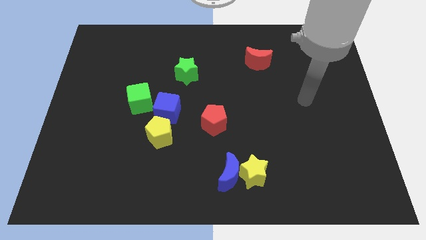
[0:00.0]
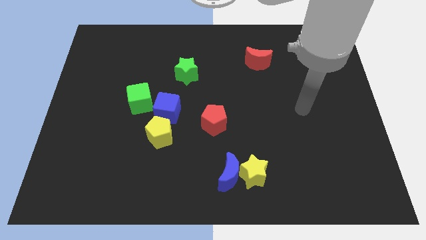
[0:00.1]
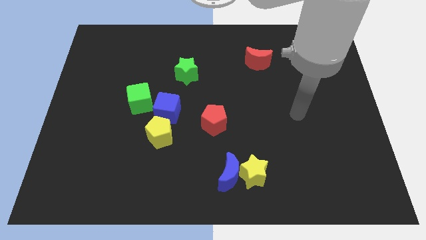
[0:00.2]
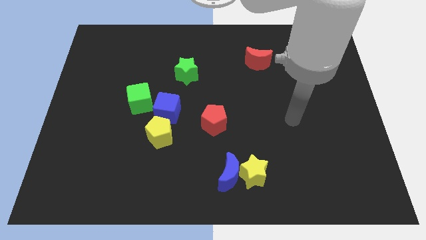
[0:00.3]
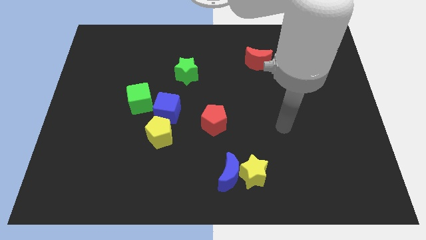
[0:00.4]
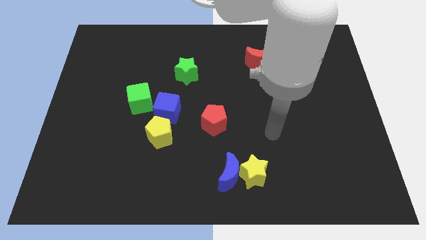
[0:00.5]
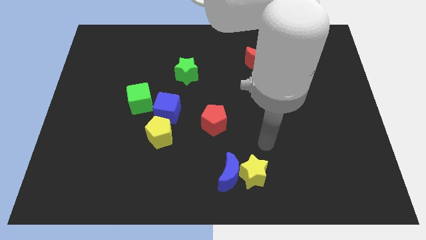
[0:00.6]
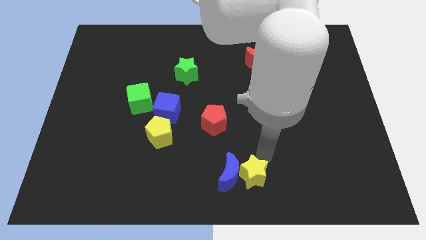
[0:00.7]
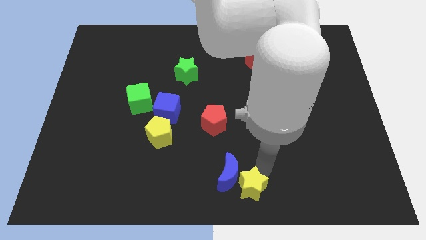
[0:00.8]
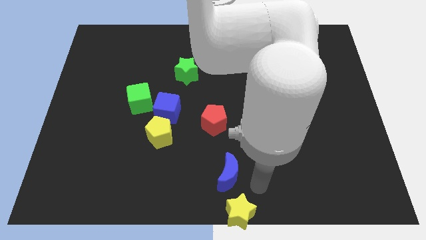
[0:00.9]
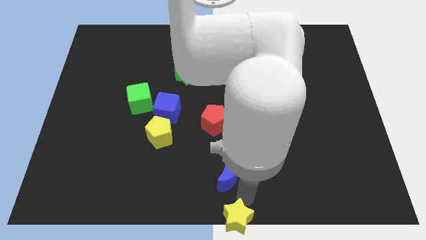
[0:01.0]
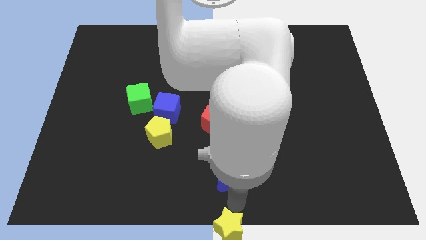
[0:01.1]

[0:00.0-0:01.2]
pull the blue moon apart from the yellow star

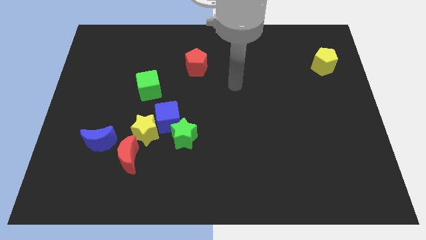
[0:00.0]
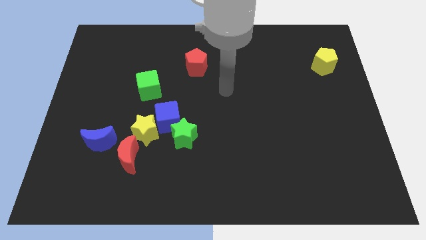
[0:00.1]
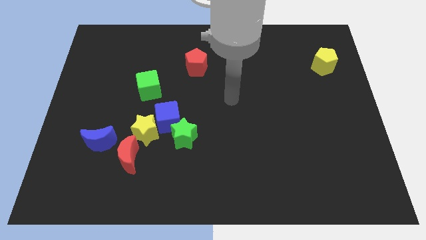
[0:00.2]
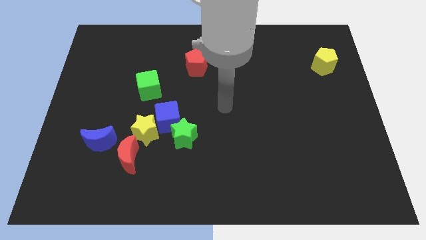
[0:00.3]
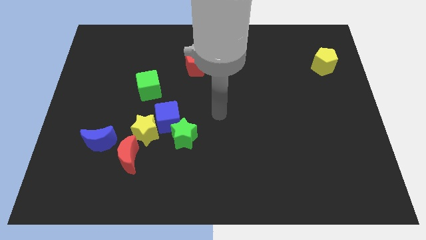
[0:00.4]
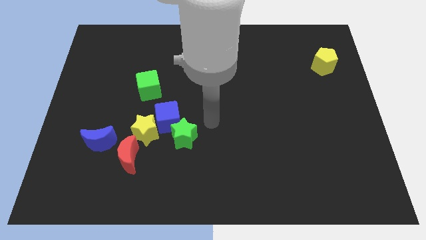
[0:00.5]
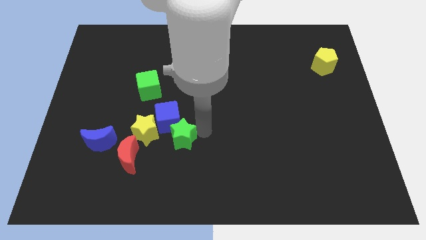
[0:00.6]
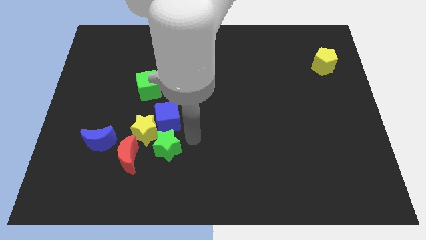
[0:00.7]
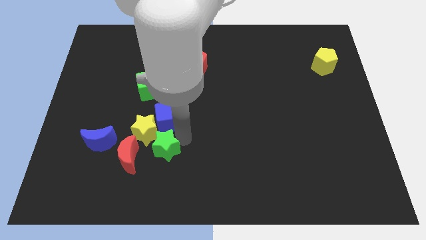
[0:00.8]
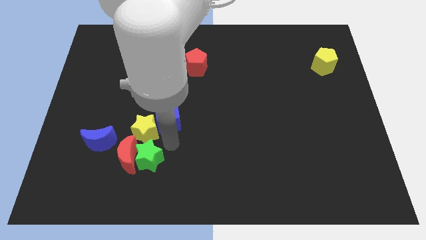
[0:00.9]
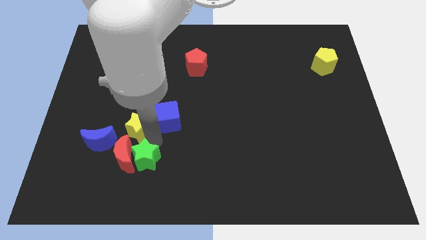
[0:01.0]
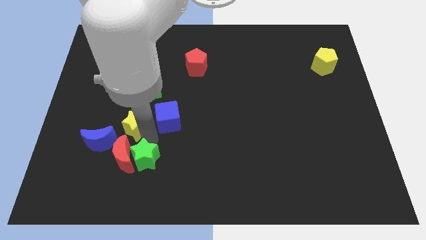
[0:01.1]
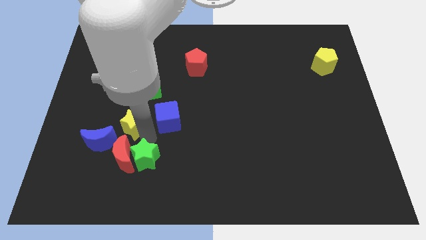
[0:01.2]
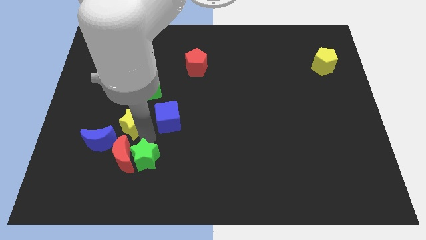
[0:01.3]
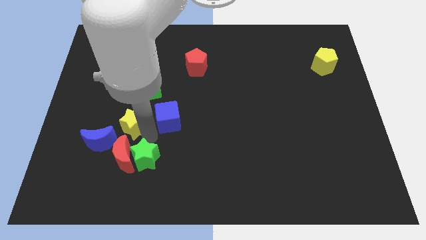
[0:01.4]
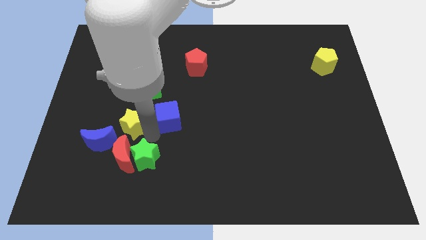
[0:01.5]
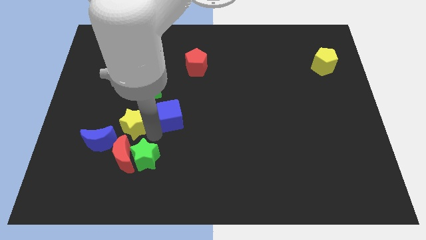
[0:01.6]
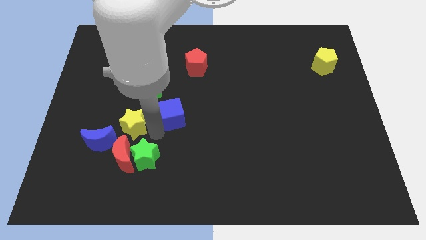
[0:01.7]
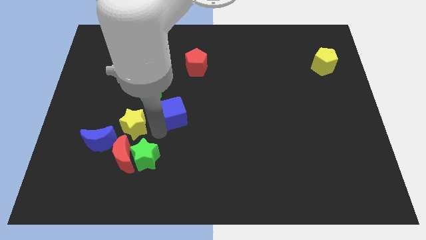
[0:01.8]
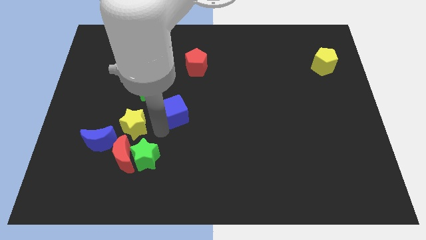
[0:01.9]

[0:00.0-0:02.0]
move the blue cube away from the yellow star and green star

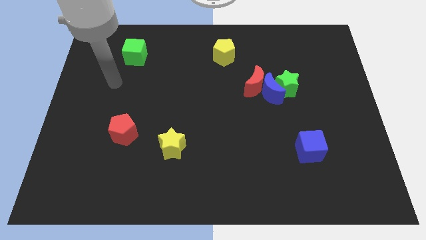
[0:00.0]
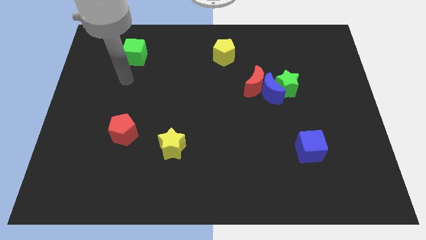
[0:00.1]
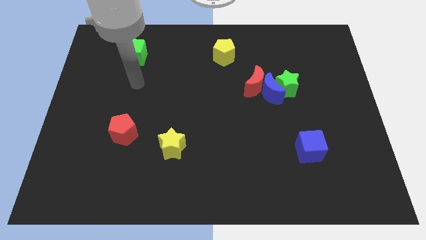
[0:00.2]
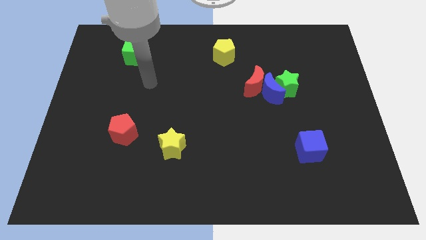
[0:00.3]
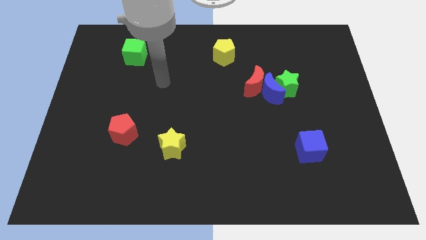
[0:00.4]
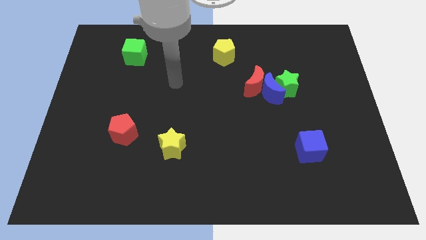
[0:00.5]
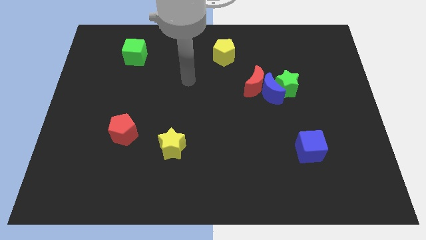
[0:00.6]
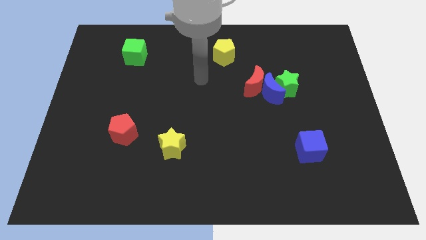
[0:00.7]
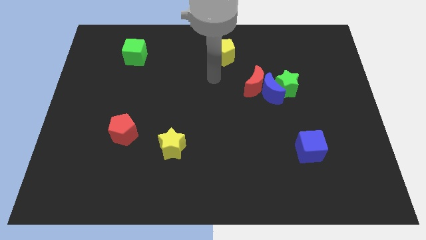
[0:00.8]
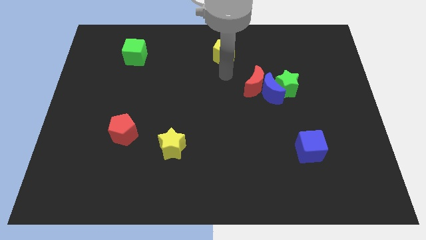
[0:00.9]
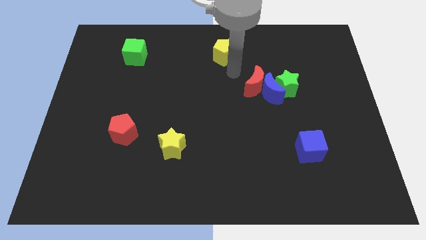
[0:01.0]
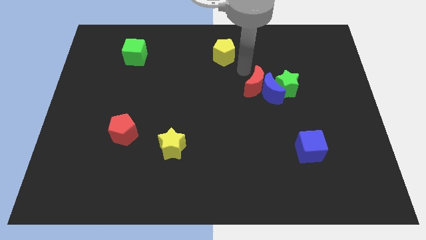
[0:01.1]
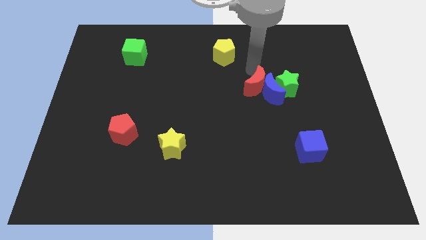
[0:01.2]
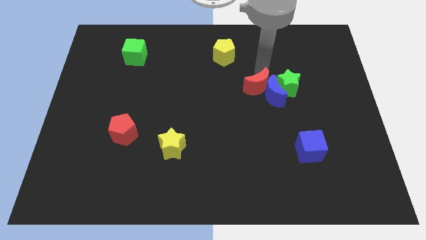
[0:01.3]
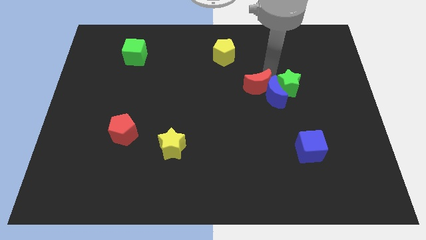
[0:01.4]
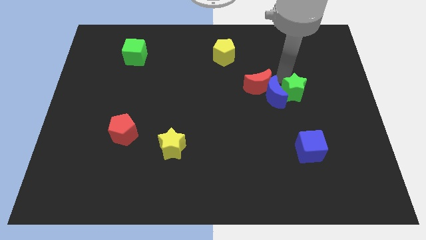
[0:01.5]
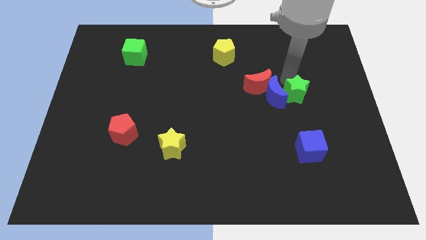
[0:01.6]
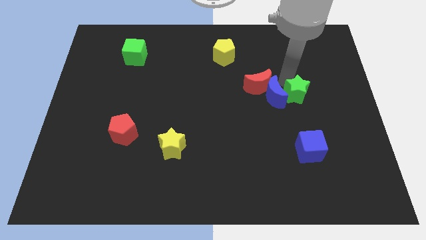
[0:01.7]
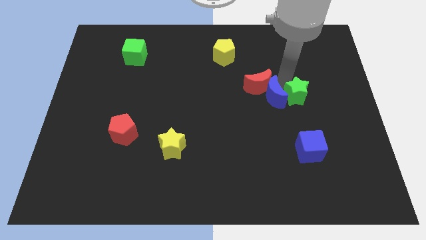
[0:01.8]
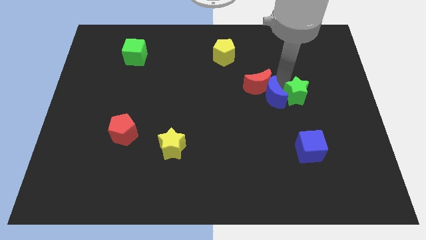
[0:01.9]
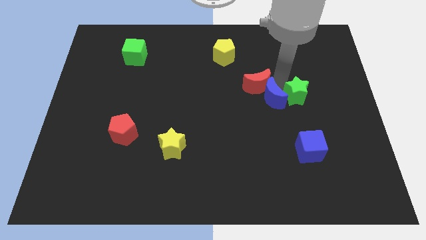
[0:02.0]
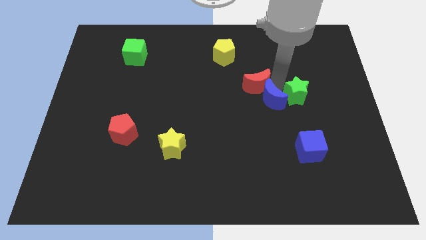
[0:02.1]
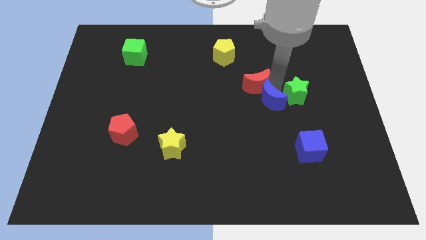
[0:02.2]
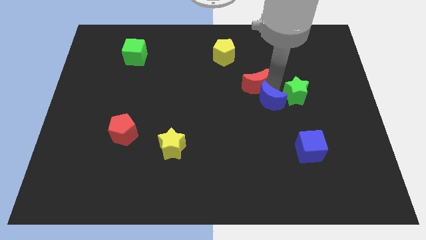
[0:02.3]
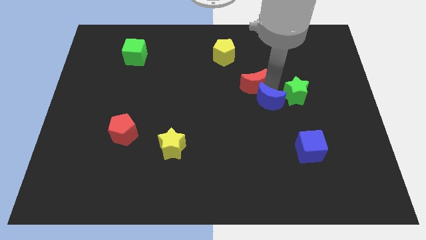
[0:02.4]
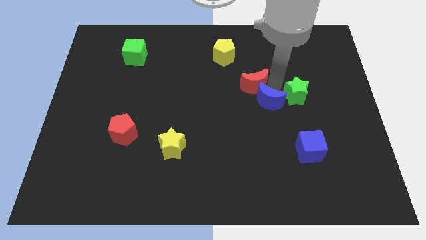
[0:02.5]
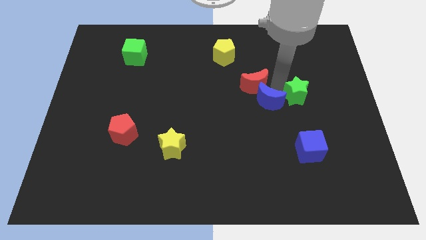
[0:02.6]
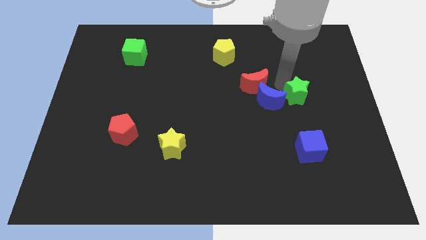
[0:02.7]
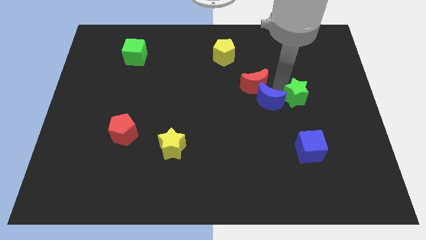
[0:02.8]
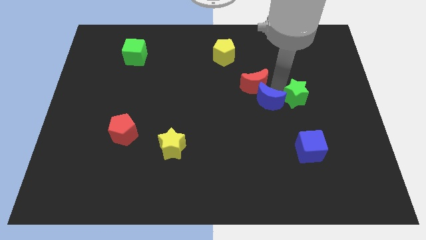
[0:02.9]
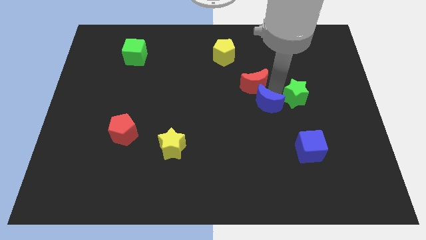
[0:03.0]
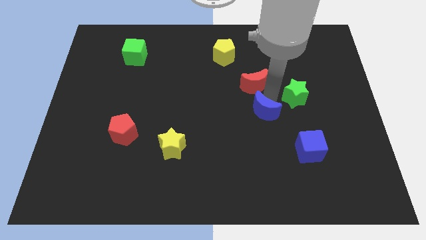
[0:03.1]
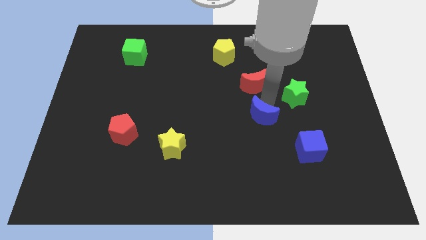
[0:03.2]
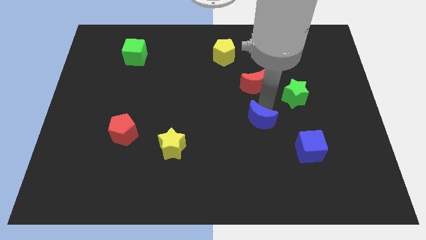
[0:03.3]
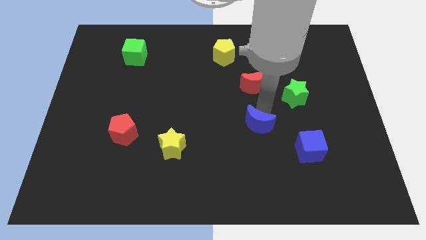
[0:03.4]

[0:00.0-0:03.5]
pull the blue moon apart from the red moon and green star

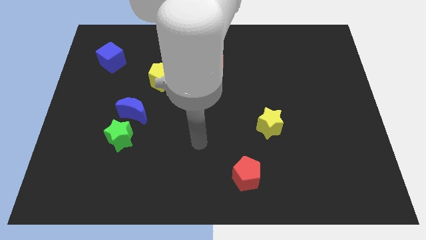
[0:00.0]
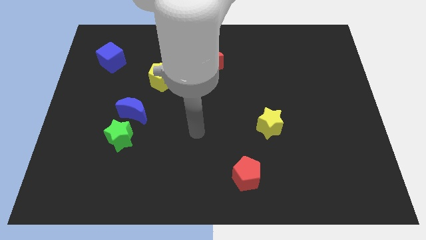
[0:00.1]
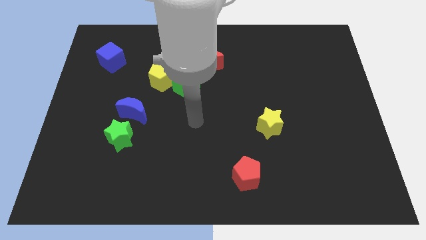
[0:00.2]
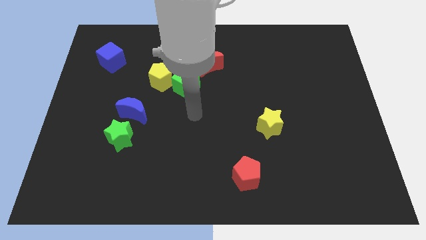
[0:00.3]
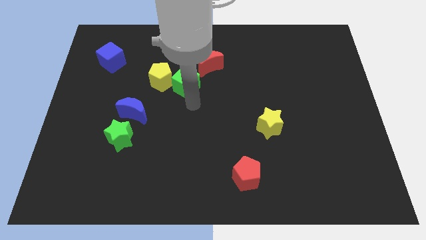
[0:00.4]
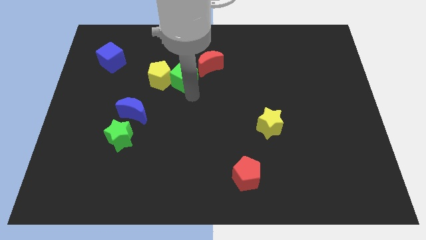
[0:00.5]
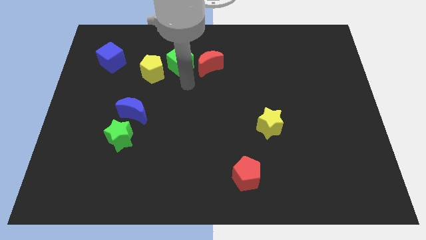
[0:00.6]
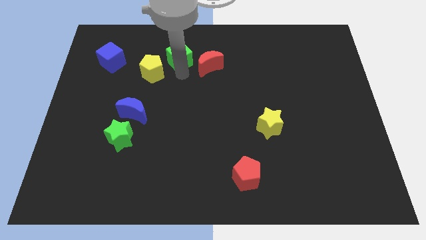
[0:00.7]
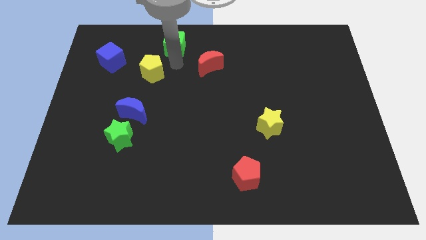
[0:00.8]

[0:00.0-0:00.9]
separate the yellow pentagon from the green cube

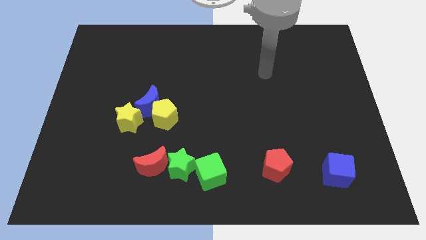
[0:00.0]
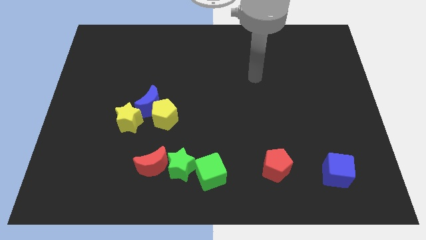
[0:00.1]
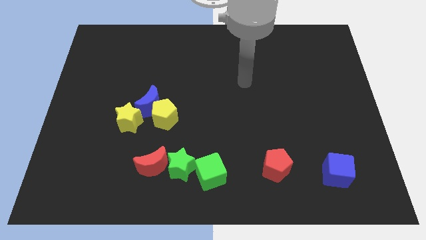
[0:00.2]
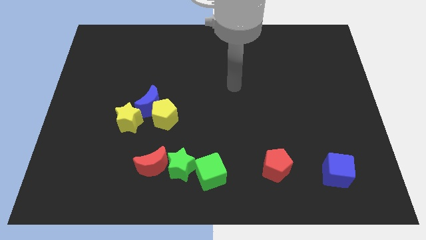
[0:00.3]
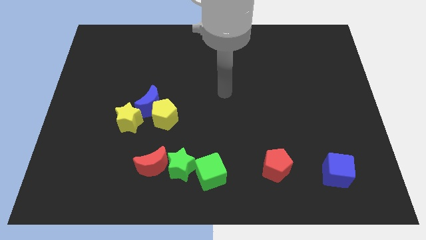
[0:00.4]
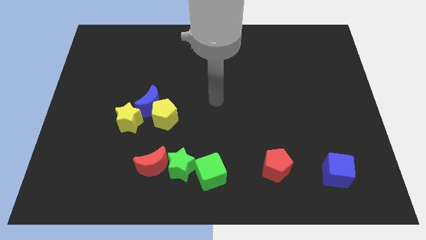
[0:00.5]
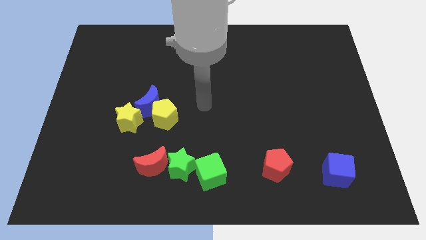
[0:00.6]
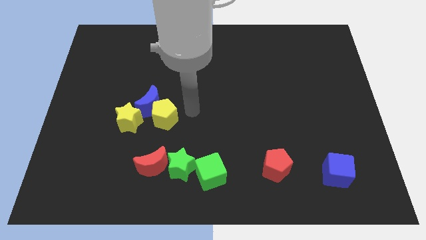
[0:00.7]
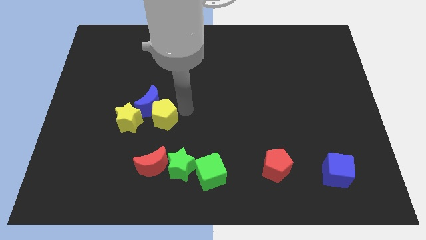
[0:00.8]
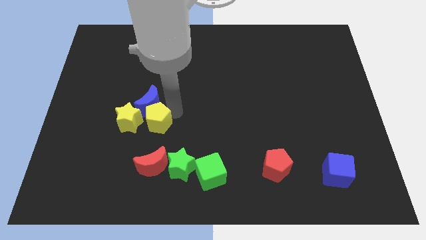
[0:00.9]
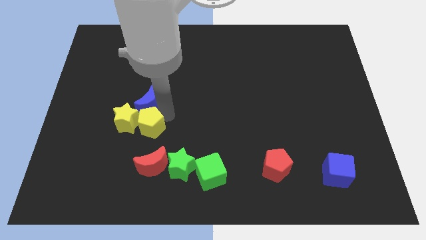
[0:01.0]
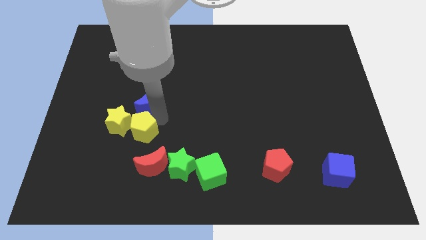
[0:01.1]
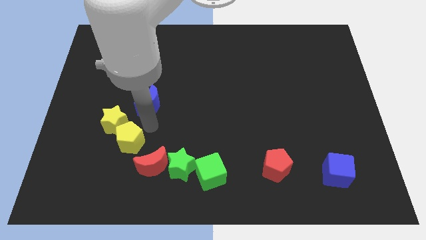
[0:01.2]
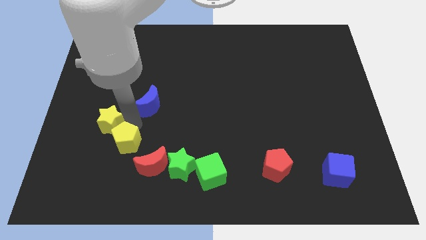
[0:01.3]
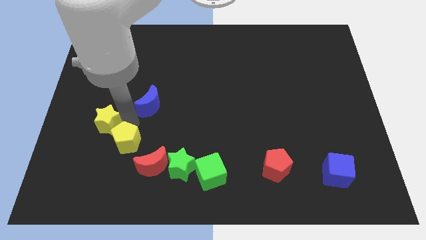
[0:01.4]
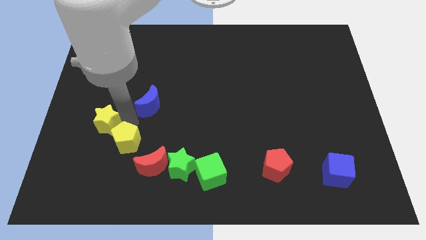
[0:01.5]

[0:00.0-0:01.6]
move the blue moon away from the yellow pentagon and yellow star
